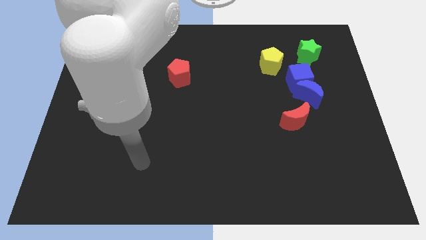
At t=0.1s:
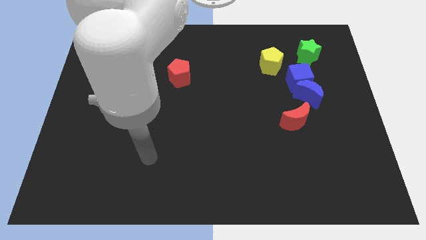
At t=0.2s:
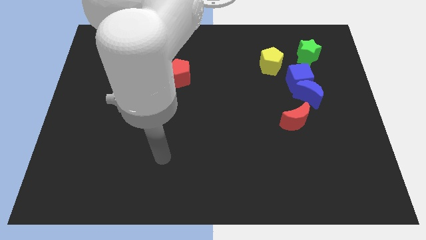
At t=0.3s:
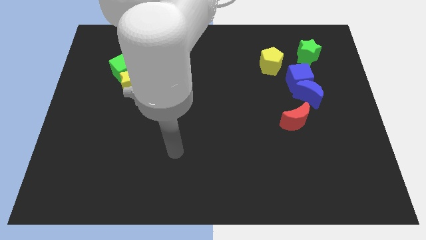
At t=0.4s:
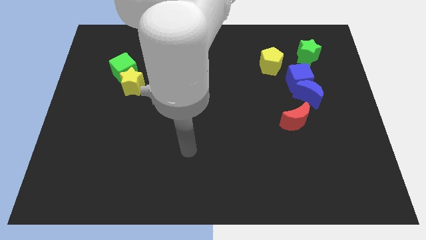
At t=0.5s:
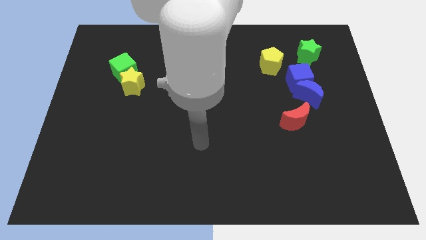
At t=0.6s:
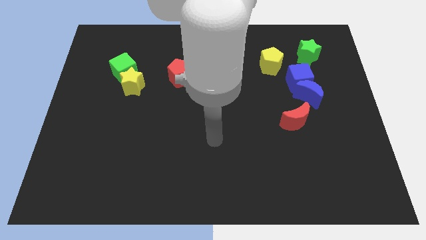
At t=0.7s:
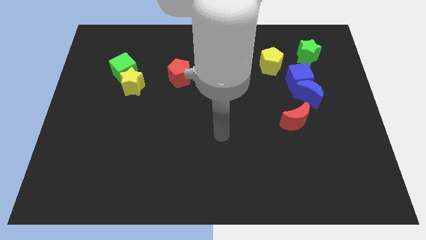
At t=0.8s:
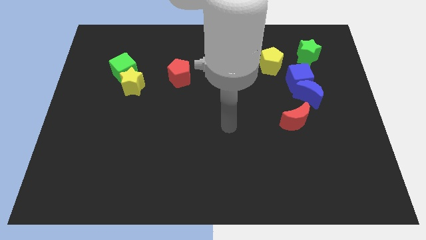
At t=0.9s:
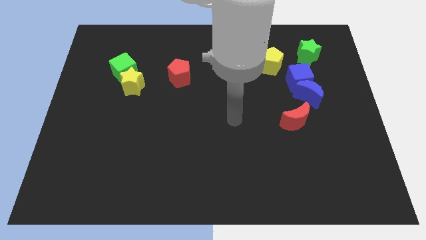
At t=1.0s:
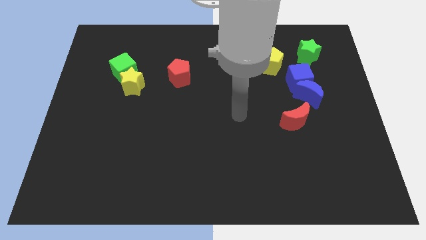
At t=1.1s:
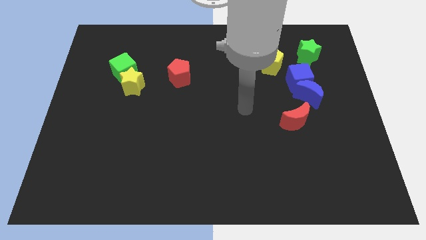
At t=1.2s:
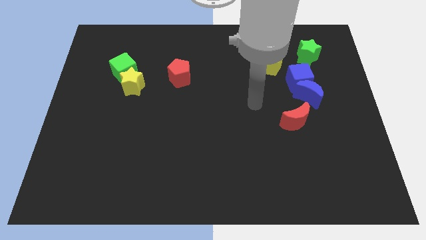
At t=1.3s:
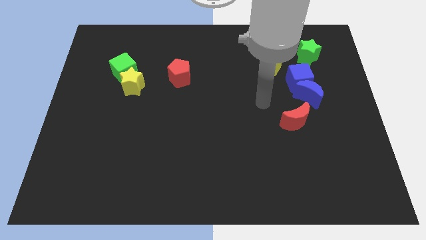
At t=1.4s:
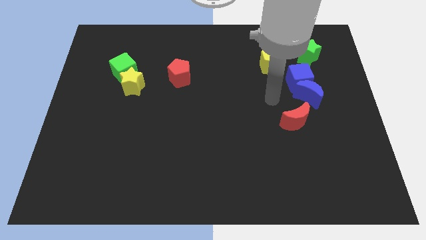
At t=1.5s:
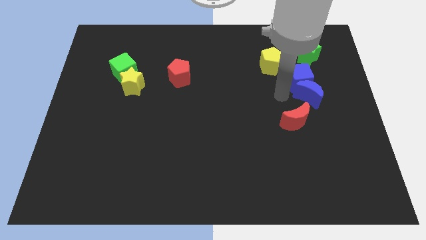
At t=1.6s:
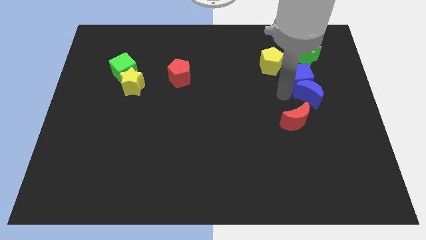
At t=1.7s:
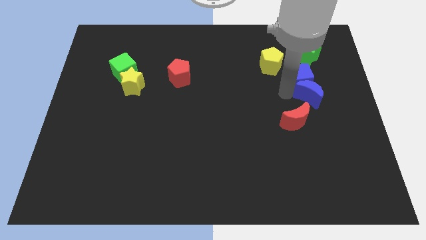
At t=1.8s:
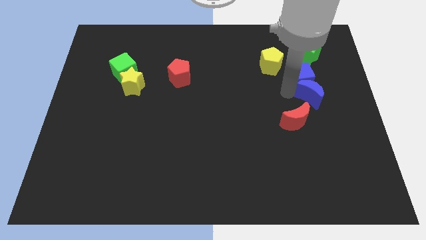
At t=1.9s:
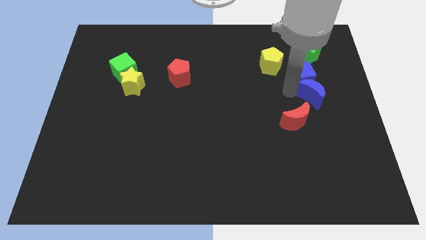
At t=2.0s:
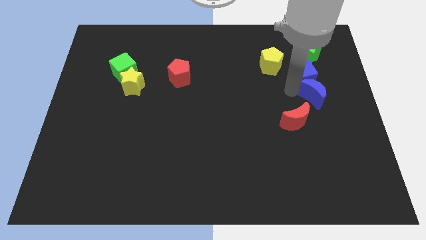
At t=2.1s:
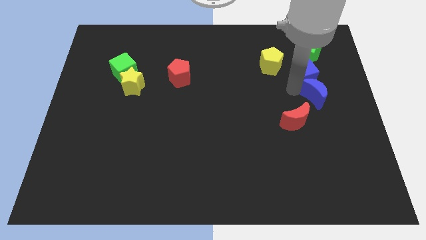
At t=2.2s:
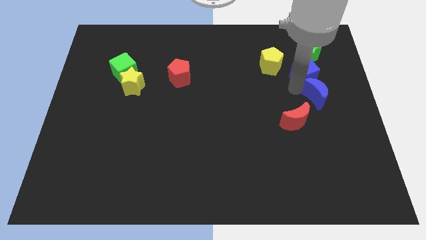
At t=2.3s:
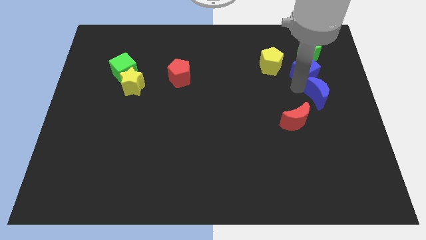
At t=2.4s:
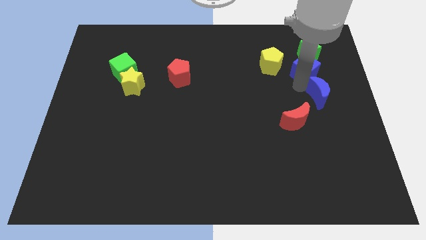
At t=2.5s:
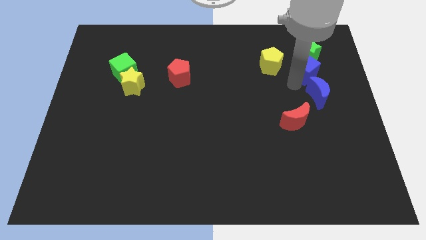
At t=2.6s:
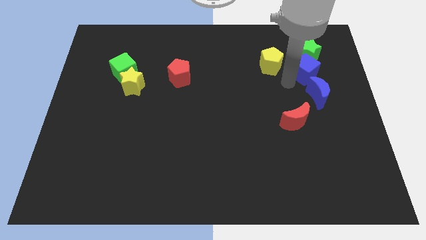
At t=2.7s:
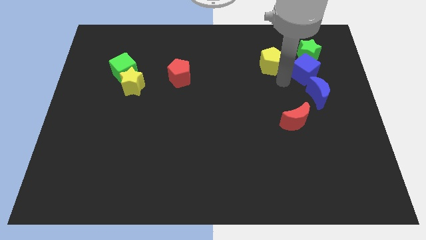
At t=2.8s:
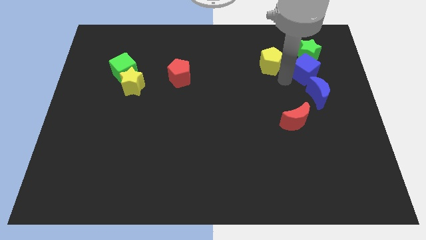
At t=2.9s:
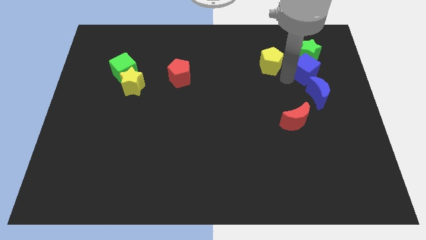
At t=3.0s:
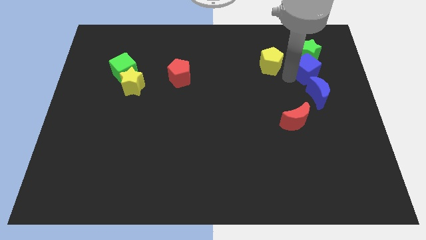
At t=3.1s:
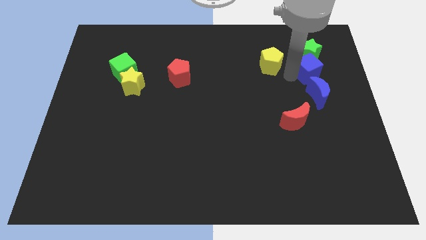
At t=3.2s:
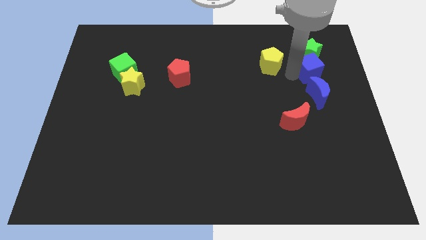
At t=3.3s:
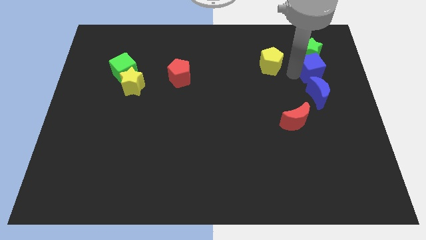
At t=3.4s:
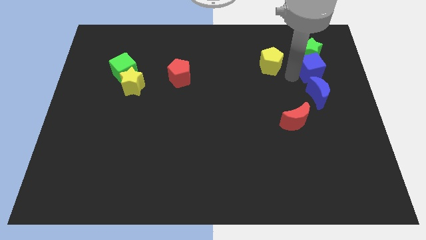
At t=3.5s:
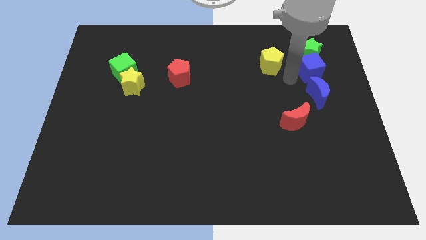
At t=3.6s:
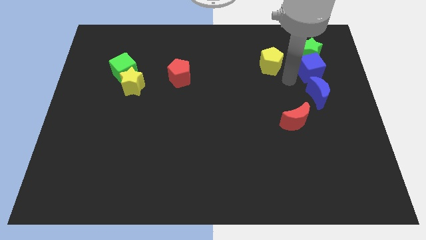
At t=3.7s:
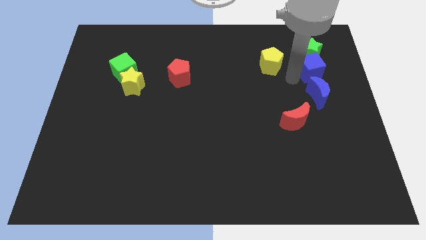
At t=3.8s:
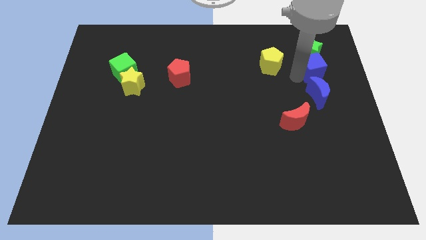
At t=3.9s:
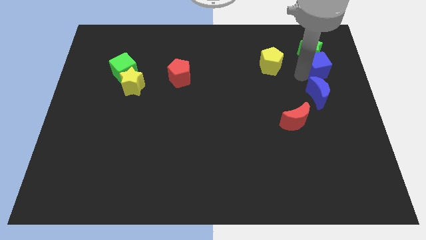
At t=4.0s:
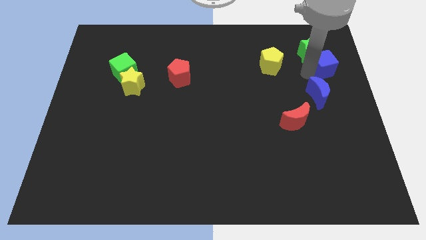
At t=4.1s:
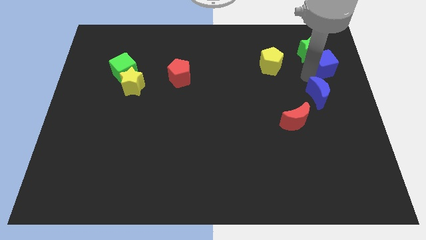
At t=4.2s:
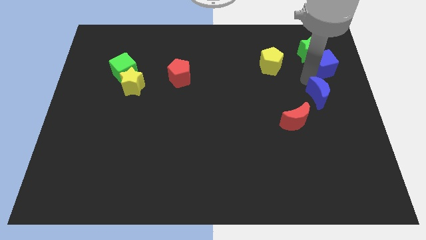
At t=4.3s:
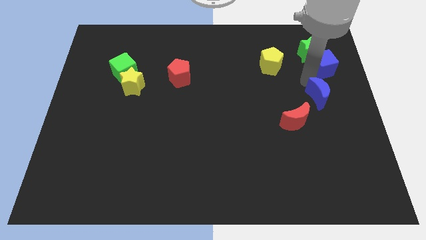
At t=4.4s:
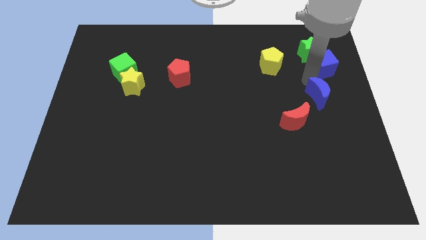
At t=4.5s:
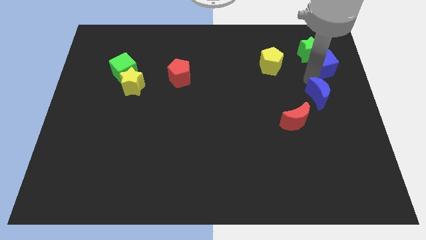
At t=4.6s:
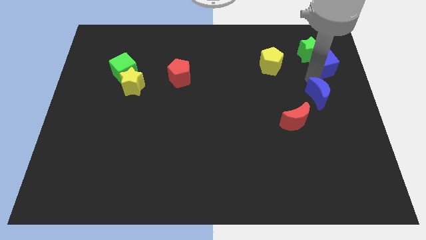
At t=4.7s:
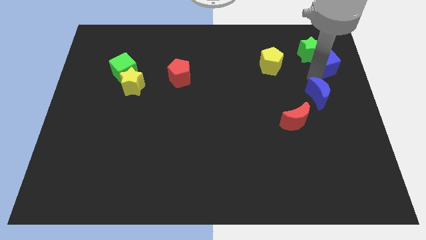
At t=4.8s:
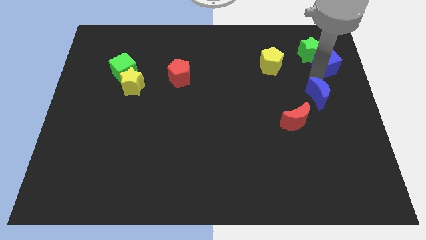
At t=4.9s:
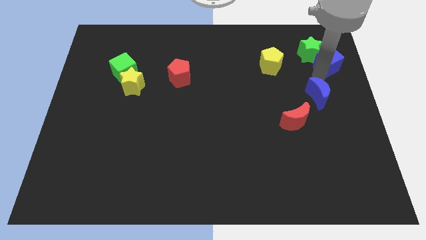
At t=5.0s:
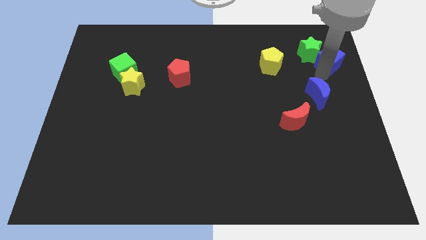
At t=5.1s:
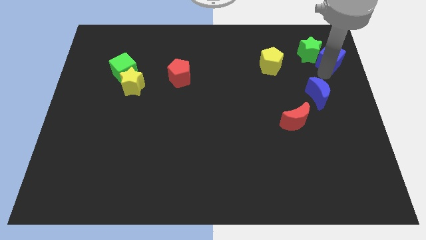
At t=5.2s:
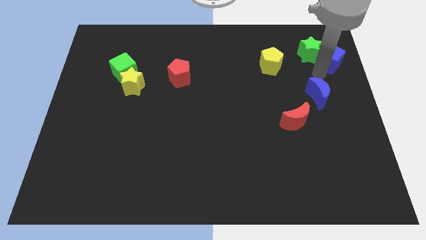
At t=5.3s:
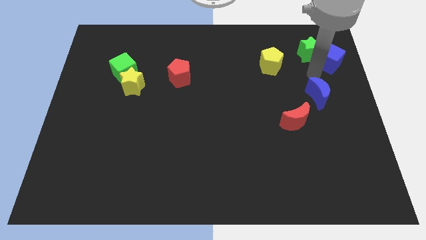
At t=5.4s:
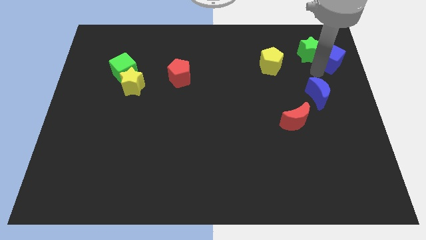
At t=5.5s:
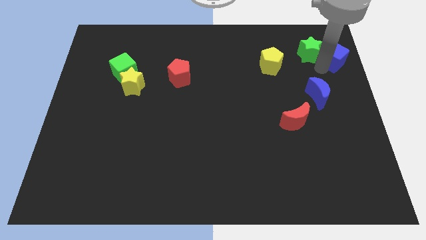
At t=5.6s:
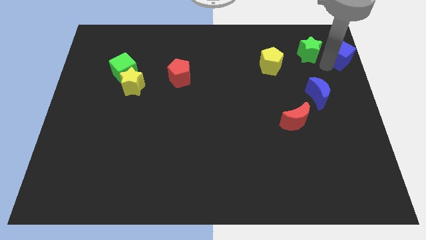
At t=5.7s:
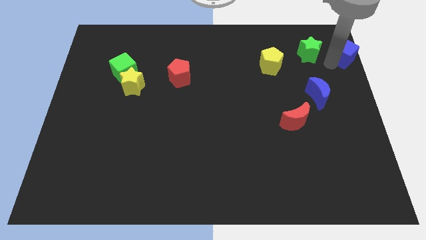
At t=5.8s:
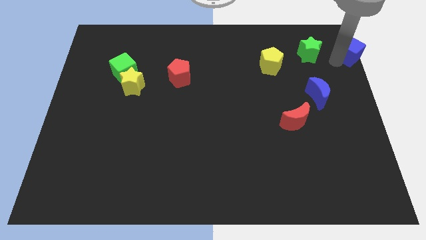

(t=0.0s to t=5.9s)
move the blue cube to the top right corner

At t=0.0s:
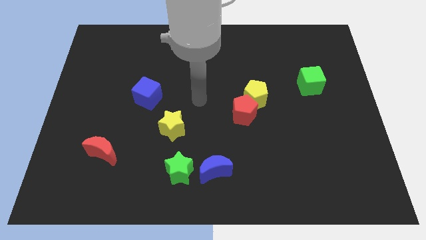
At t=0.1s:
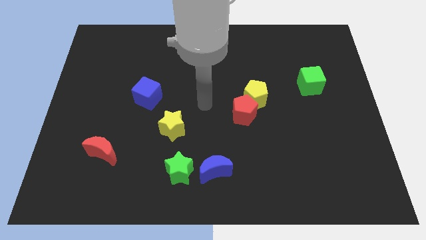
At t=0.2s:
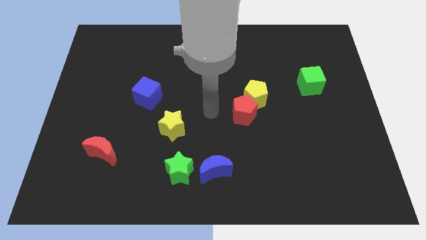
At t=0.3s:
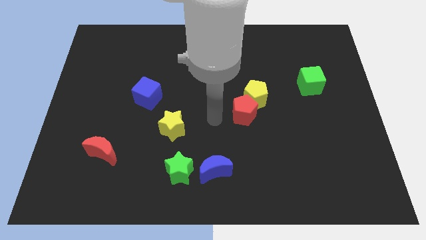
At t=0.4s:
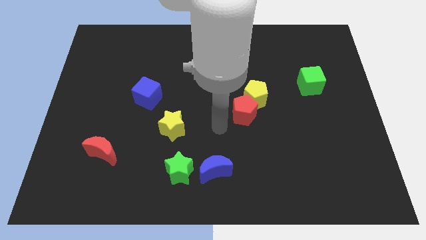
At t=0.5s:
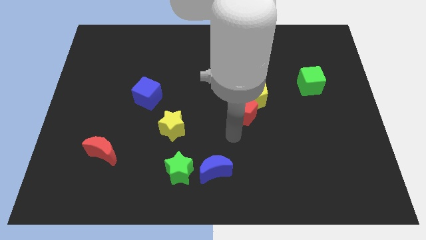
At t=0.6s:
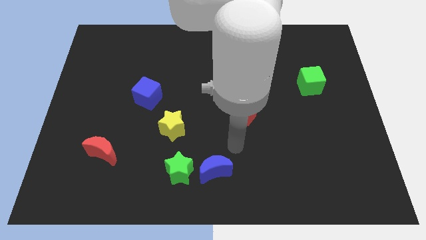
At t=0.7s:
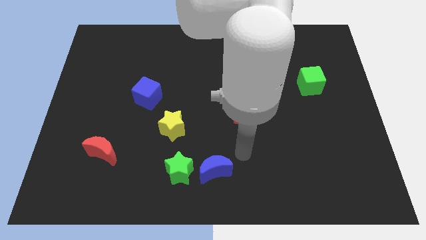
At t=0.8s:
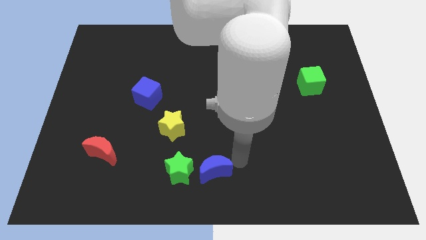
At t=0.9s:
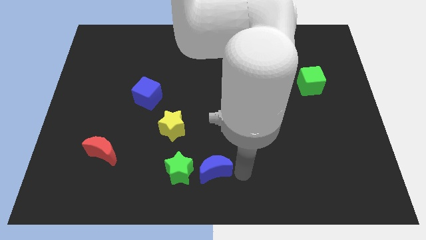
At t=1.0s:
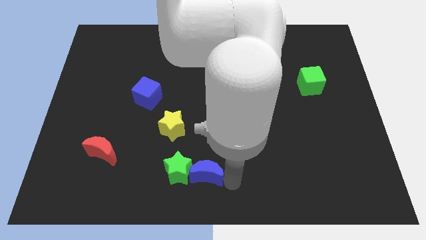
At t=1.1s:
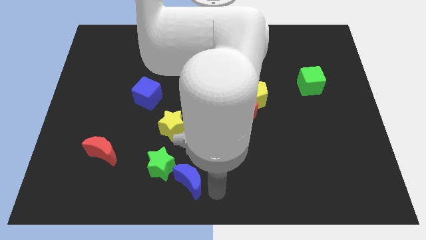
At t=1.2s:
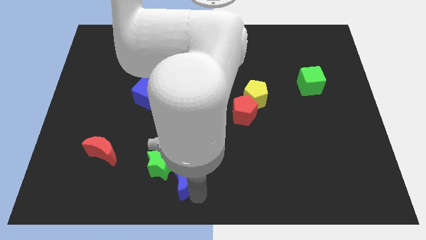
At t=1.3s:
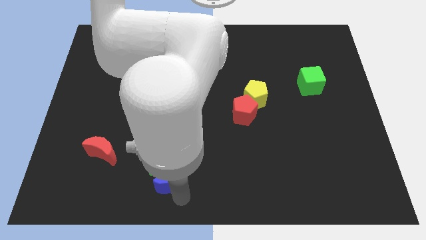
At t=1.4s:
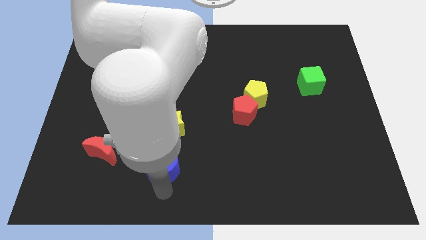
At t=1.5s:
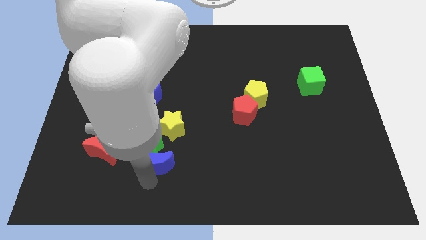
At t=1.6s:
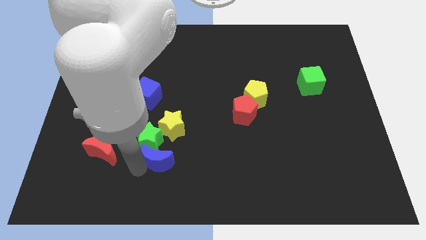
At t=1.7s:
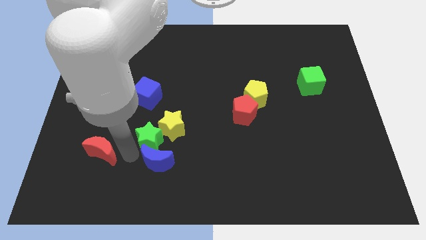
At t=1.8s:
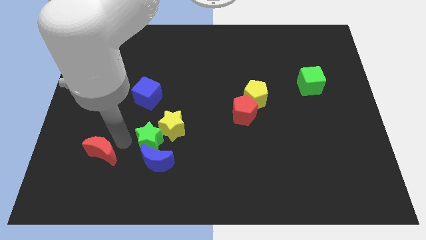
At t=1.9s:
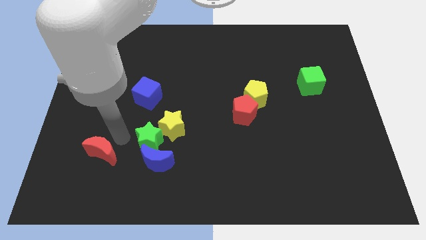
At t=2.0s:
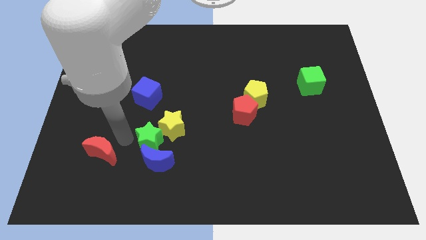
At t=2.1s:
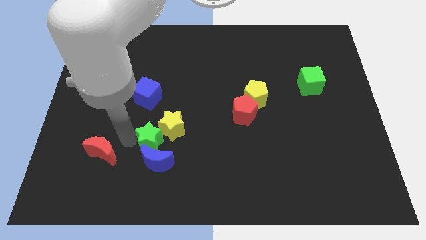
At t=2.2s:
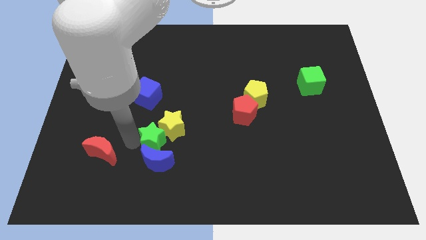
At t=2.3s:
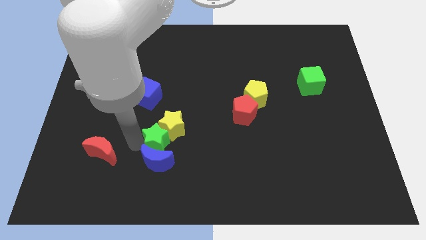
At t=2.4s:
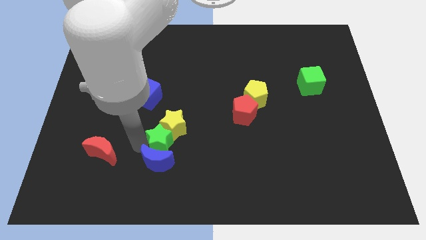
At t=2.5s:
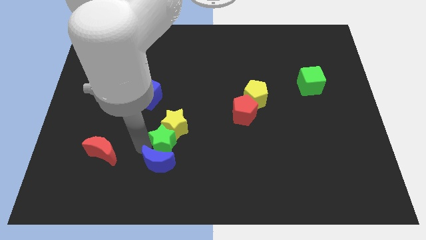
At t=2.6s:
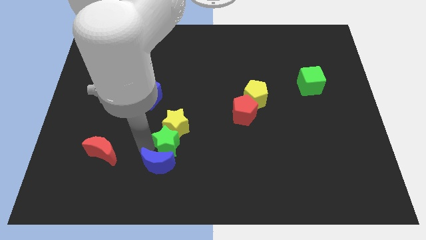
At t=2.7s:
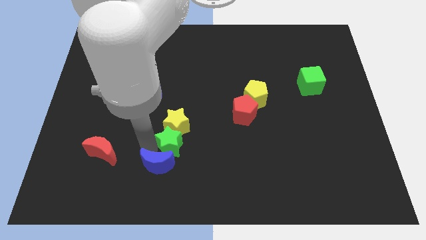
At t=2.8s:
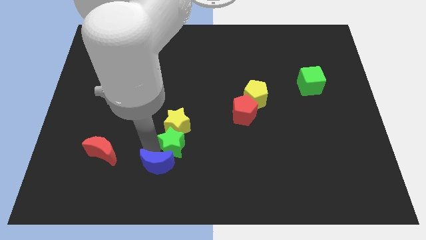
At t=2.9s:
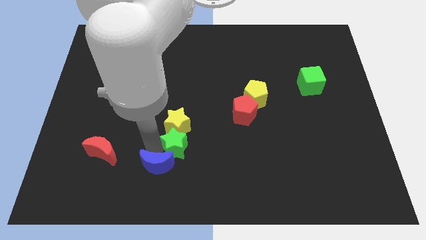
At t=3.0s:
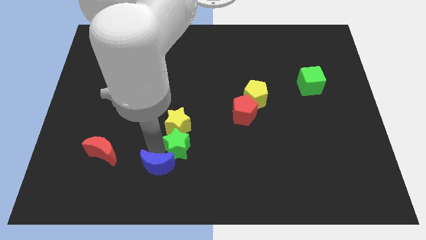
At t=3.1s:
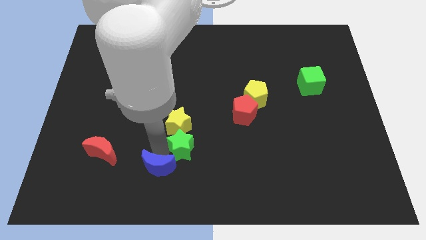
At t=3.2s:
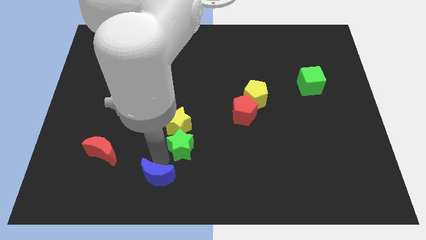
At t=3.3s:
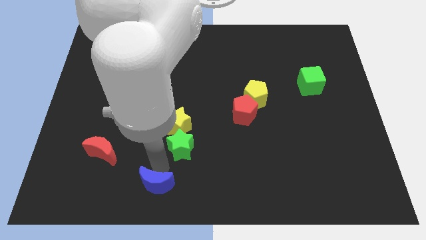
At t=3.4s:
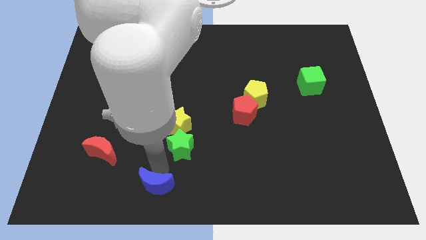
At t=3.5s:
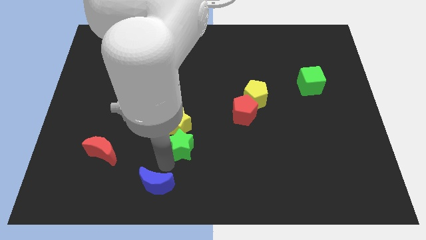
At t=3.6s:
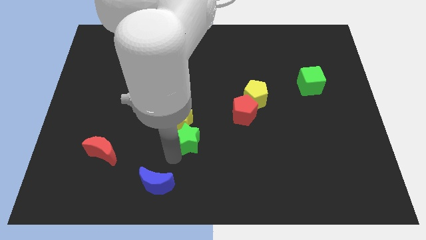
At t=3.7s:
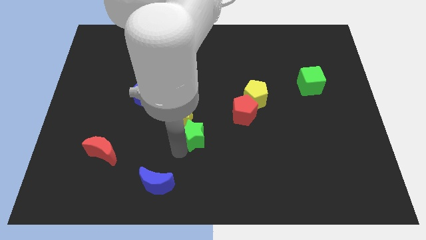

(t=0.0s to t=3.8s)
put the green star to the middle of the board
